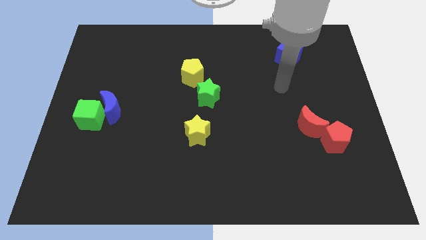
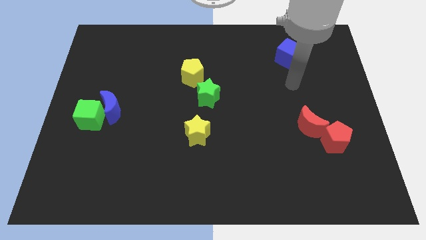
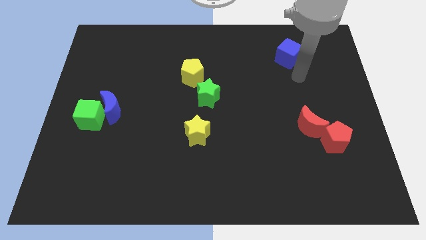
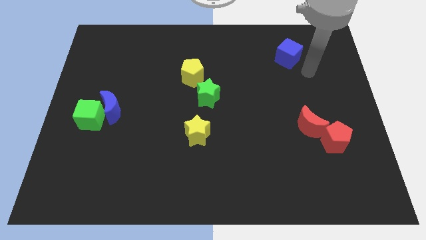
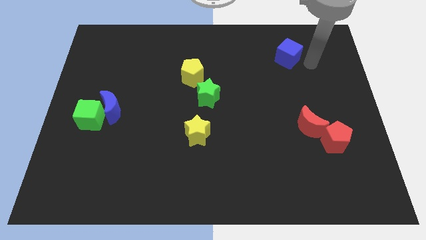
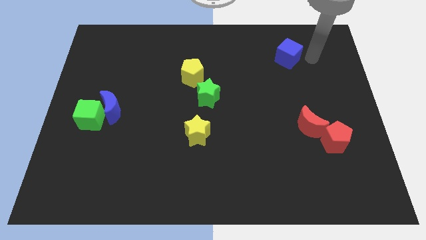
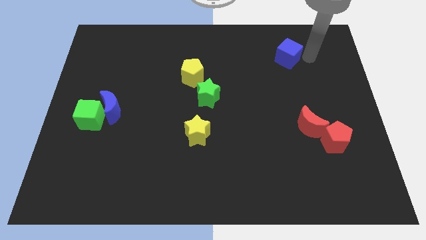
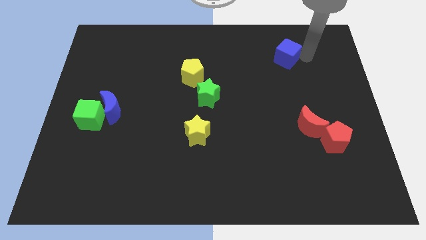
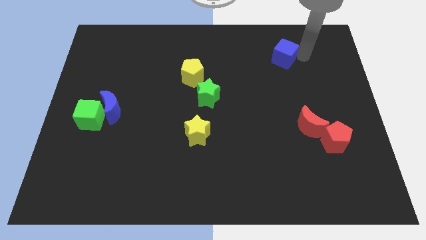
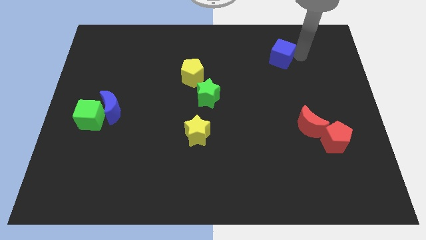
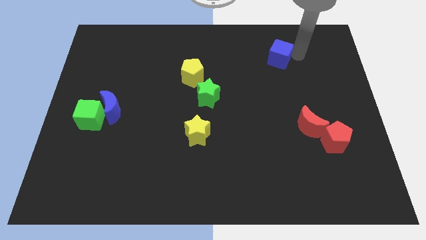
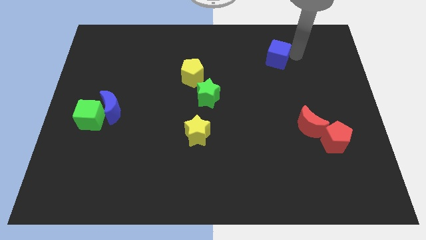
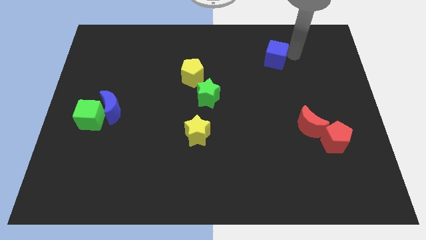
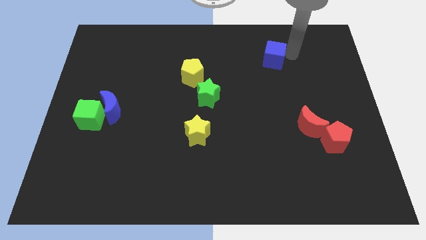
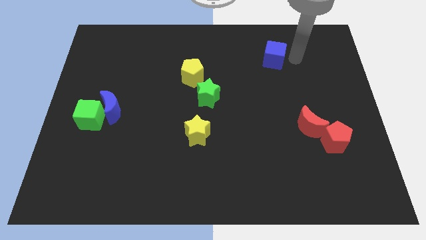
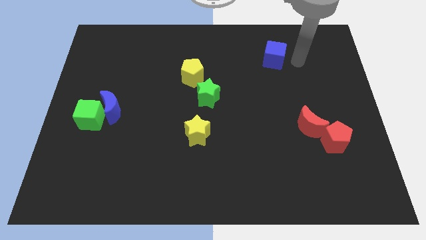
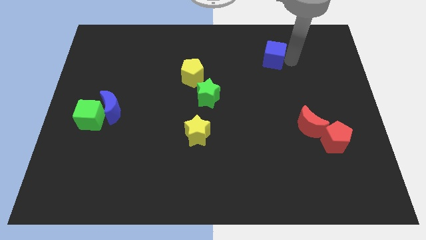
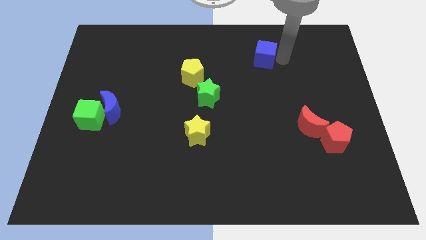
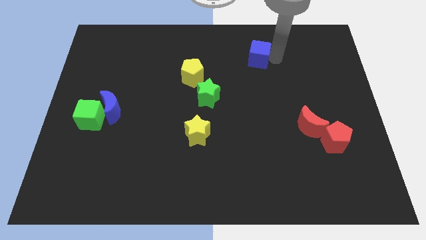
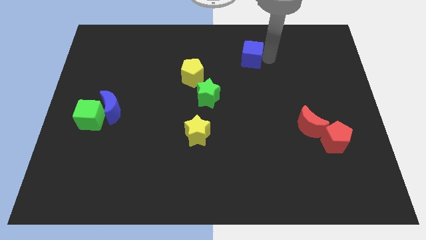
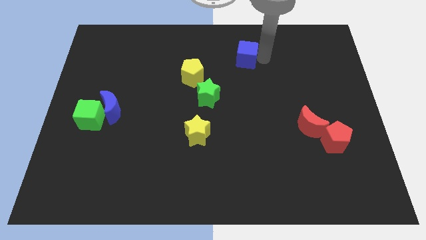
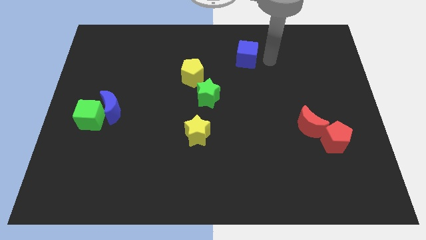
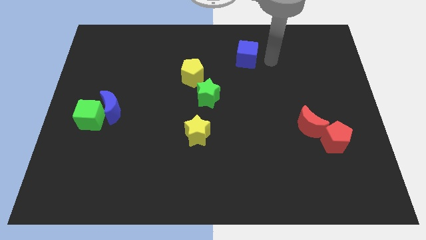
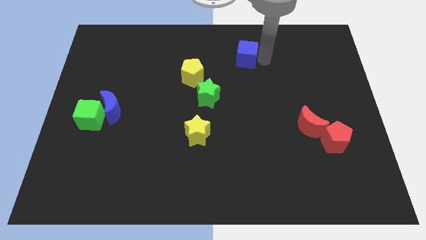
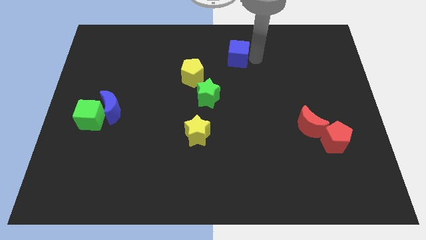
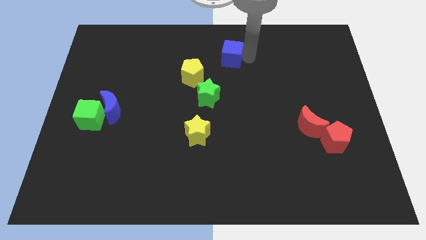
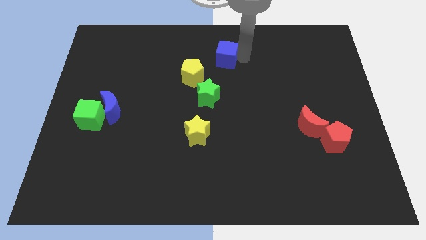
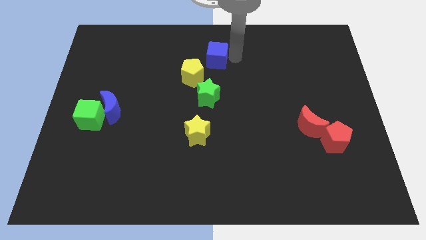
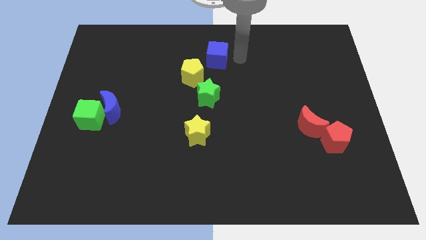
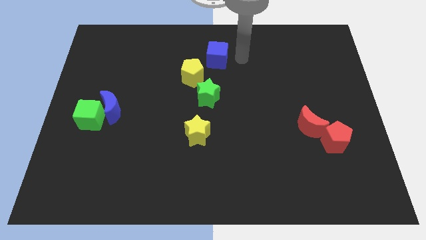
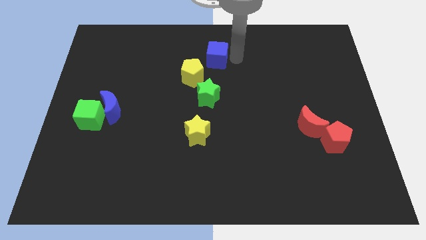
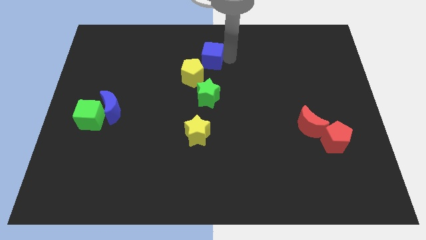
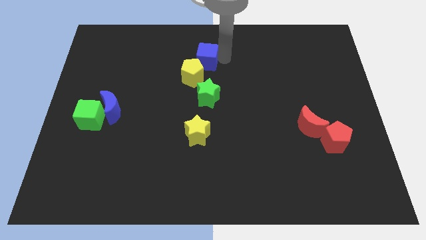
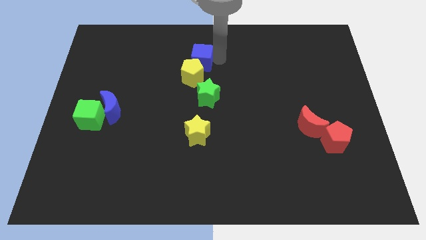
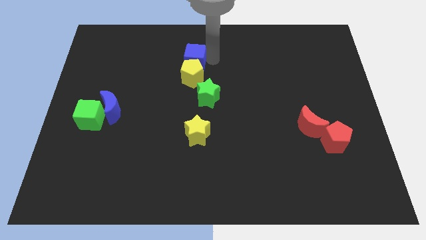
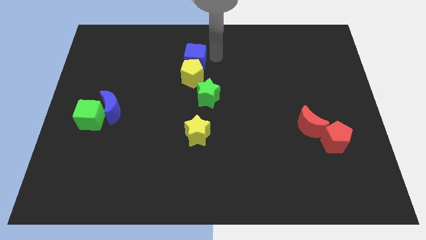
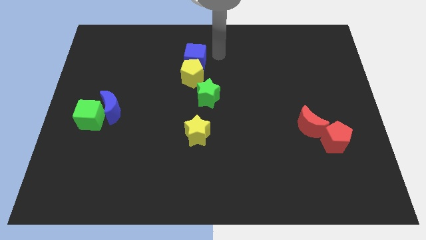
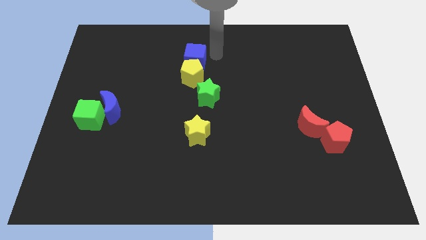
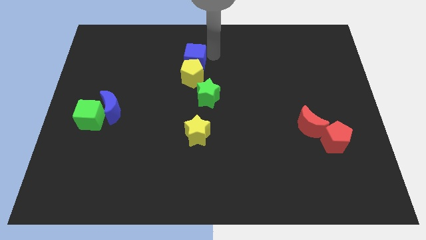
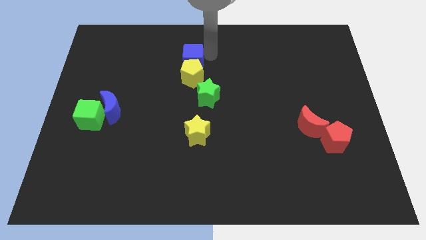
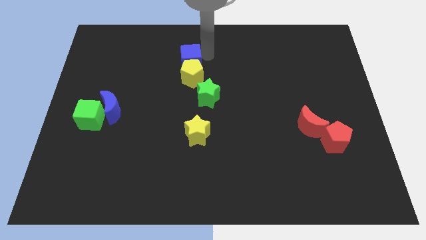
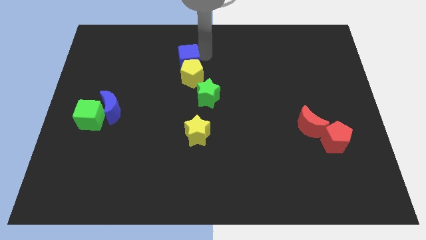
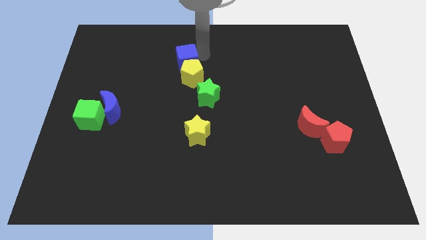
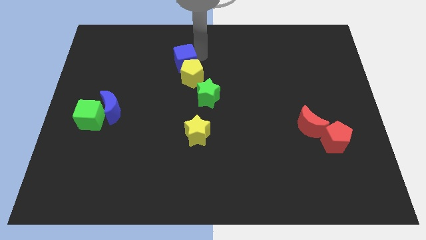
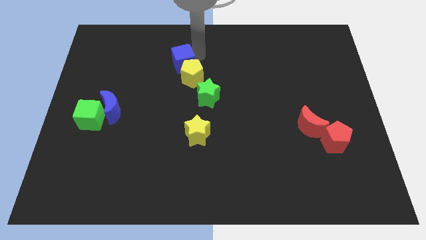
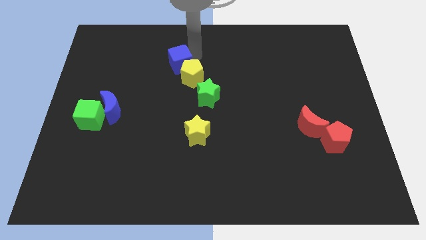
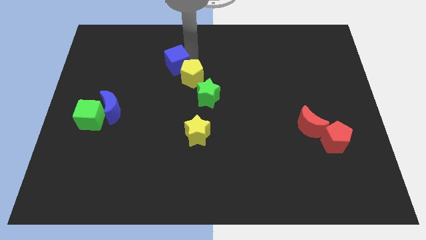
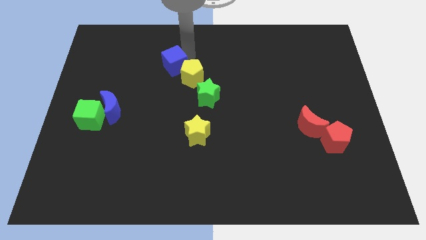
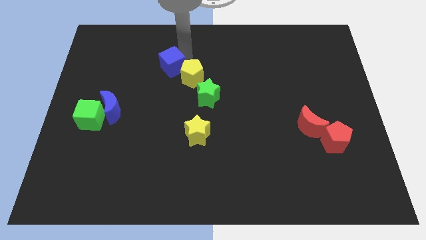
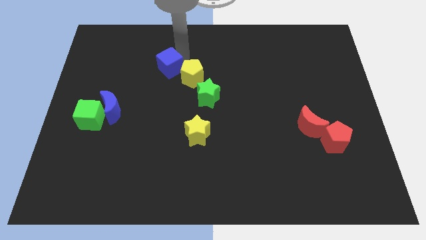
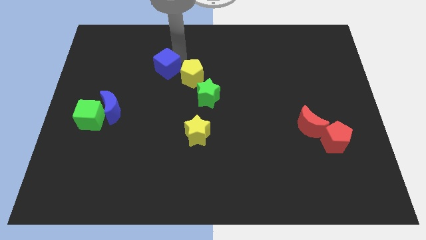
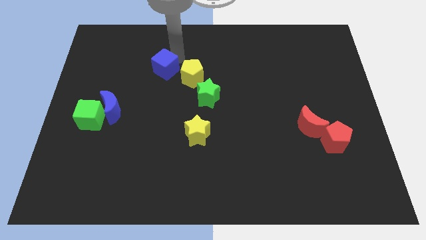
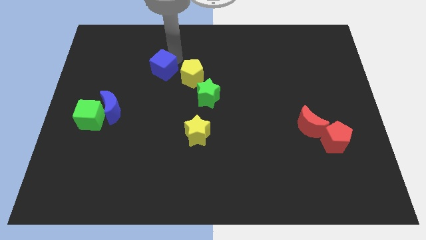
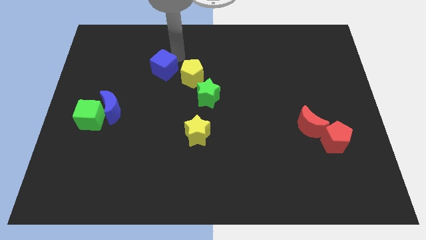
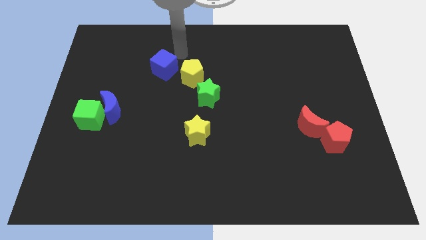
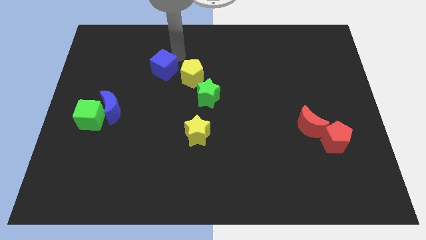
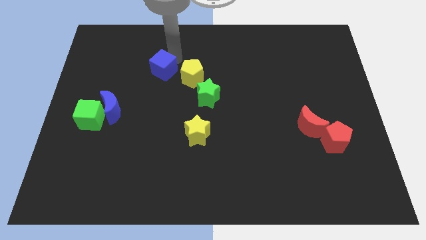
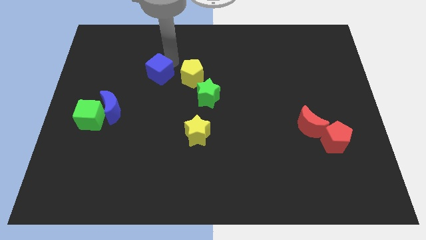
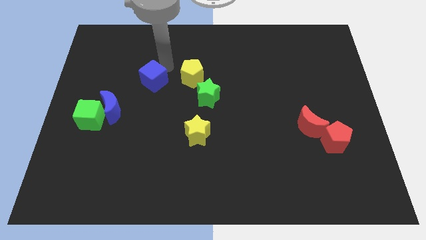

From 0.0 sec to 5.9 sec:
put the blue cube to the top right of the blue moon

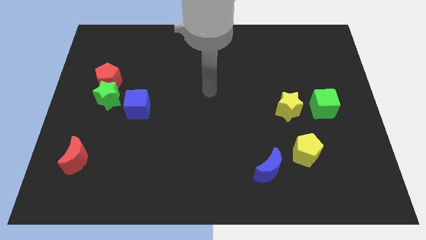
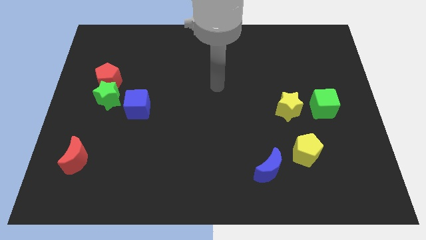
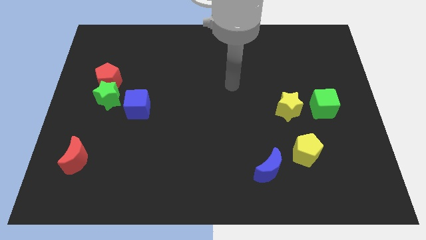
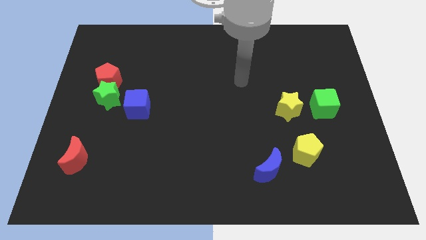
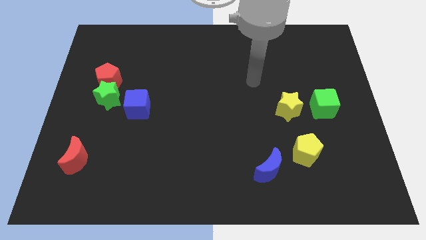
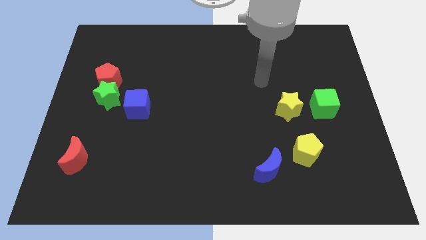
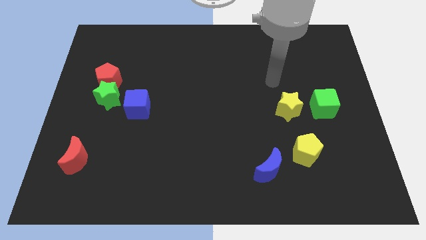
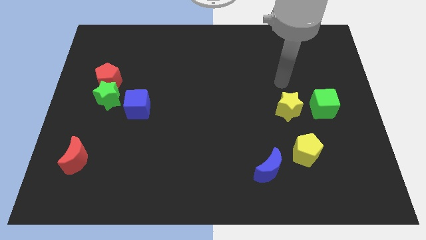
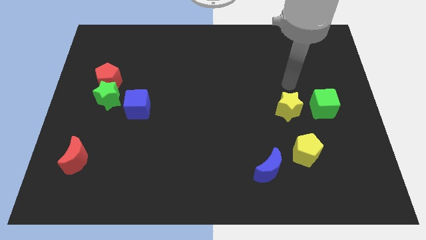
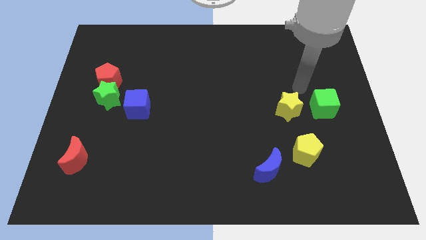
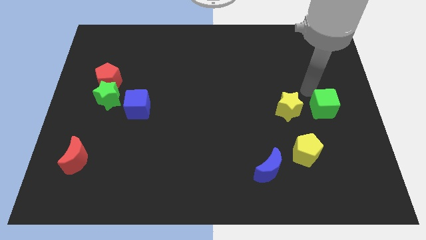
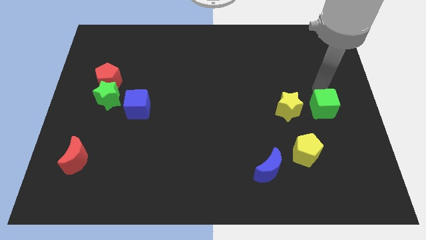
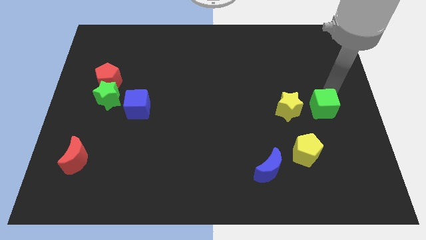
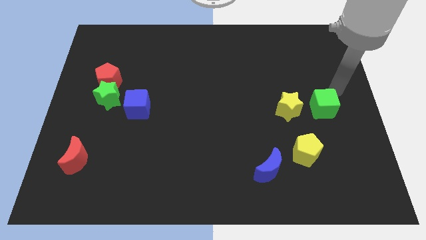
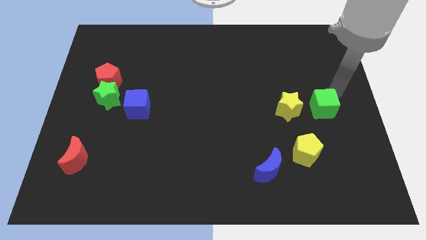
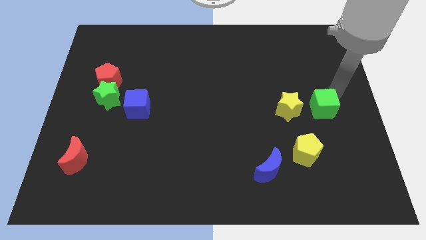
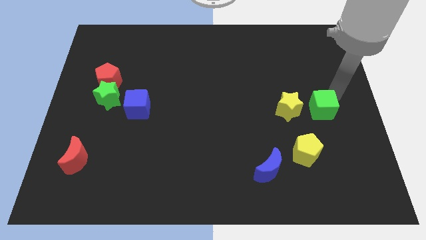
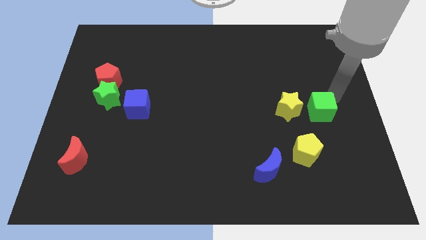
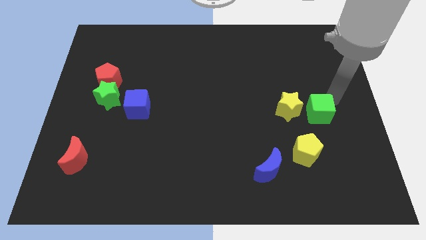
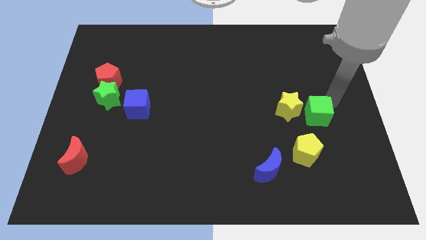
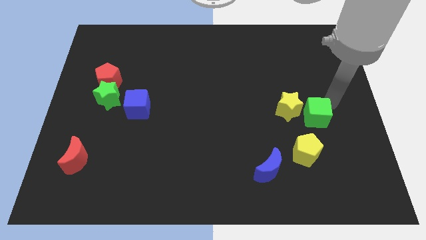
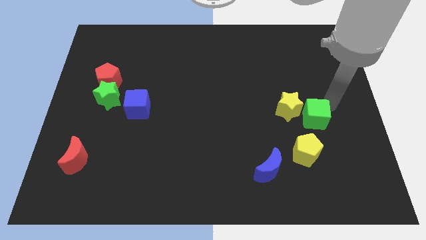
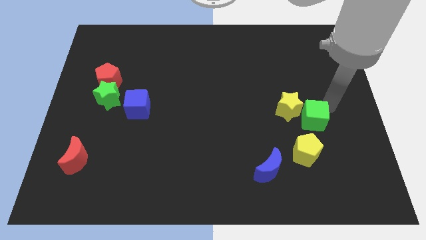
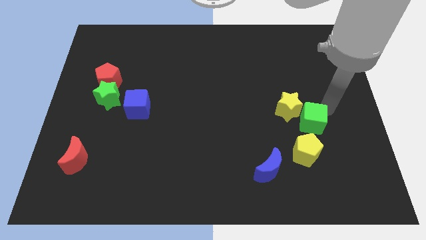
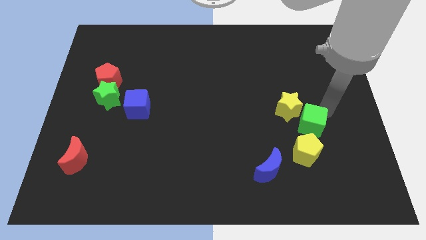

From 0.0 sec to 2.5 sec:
slide the green cube to the bottom side of the yellow star
